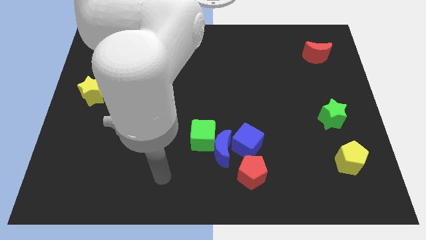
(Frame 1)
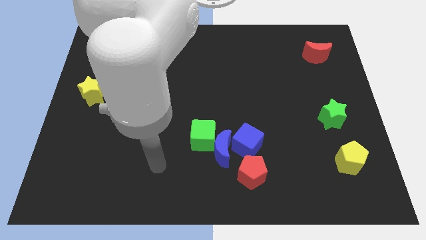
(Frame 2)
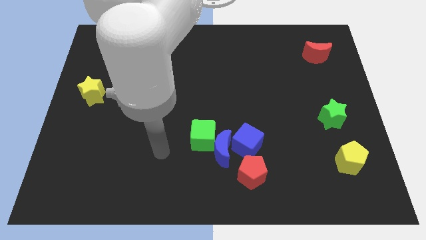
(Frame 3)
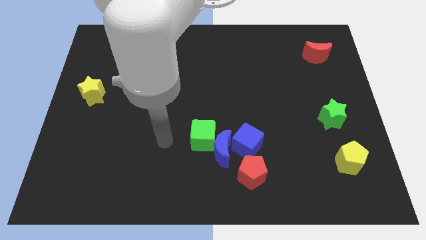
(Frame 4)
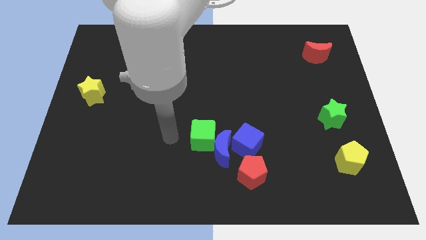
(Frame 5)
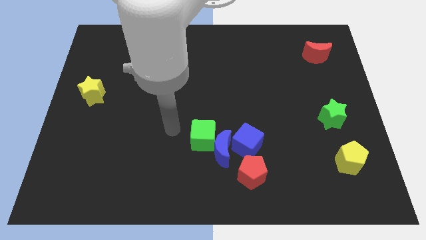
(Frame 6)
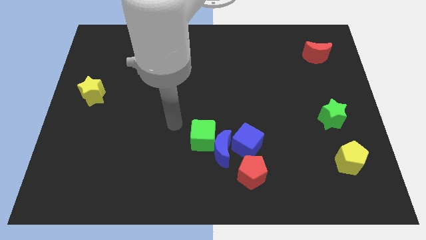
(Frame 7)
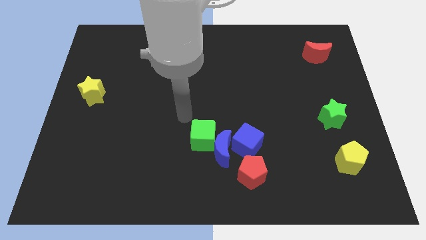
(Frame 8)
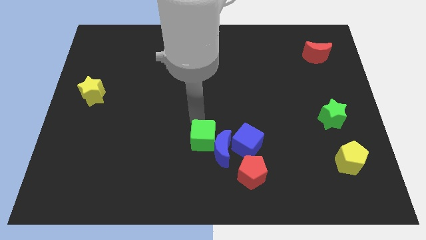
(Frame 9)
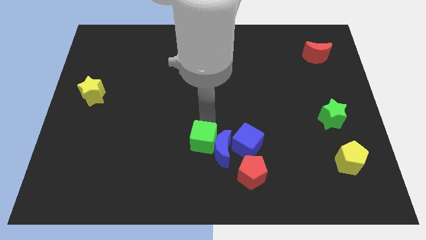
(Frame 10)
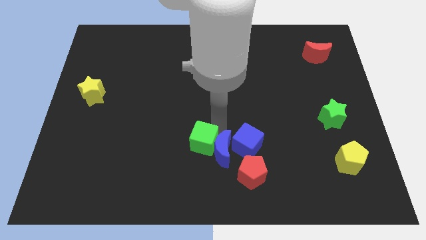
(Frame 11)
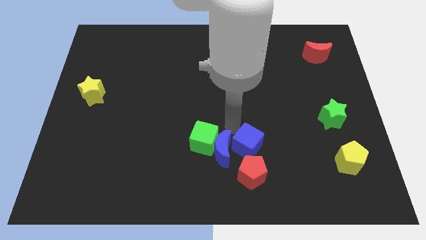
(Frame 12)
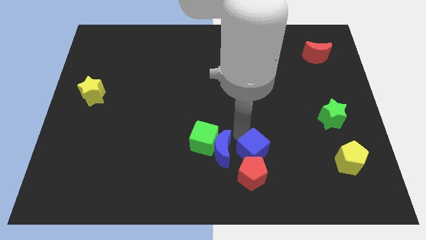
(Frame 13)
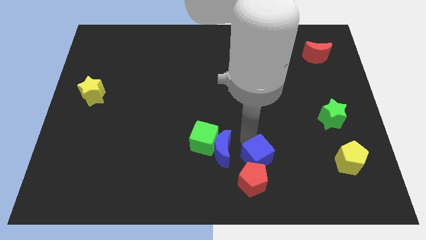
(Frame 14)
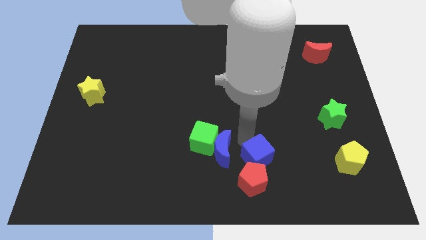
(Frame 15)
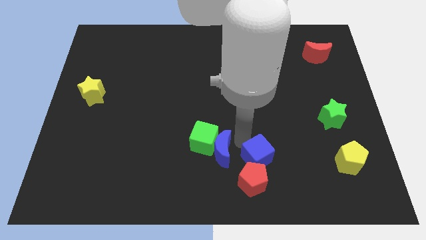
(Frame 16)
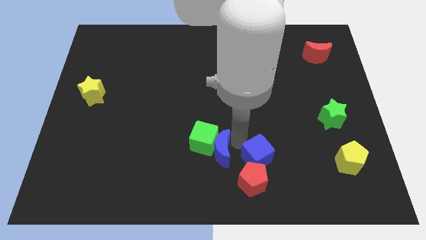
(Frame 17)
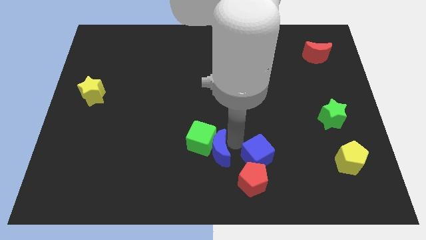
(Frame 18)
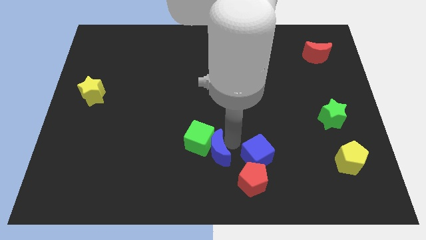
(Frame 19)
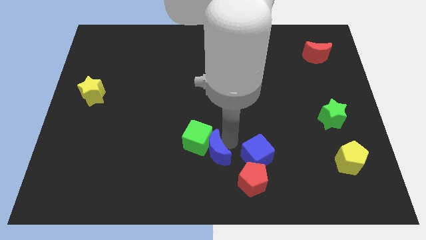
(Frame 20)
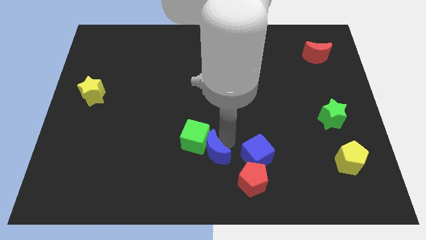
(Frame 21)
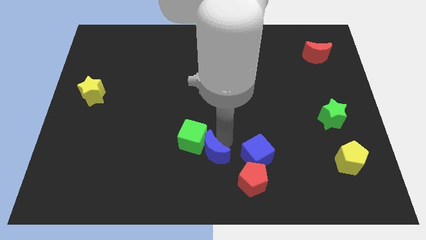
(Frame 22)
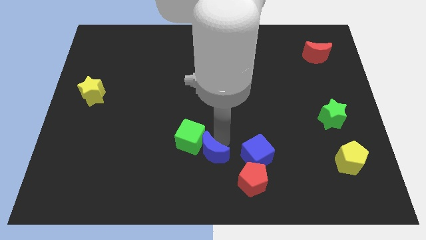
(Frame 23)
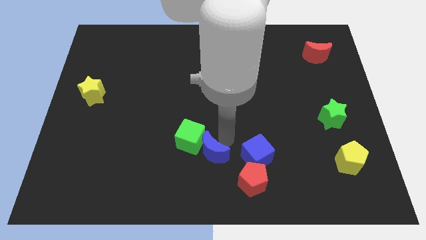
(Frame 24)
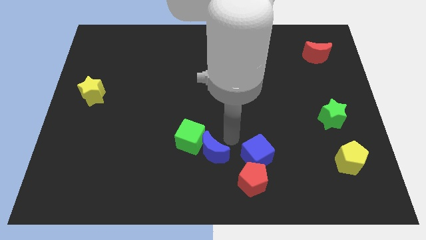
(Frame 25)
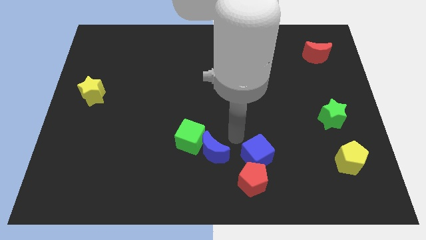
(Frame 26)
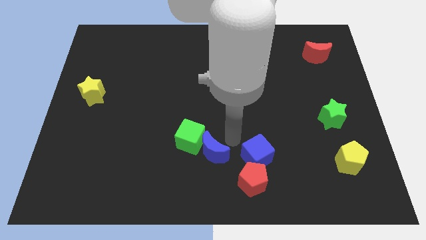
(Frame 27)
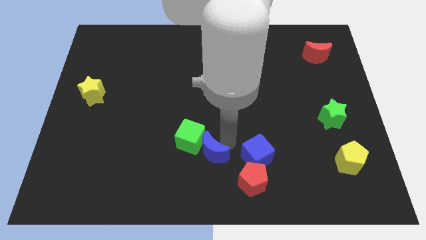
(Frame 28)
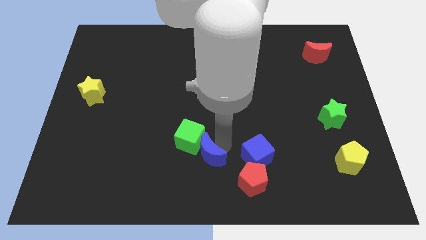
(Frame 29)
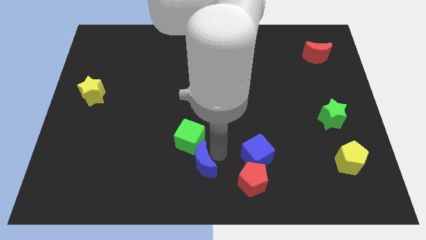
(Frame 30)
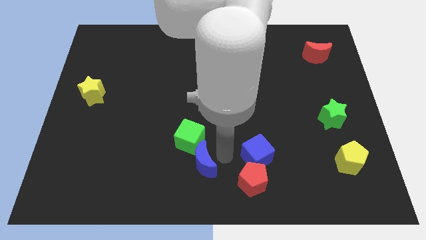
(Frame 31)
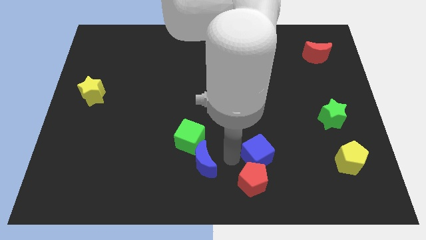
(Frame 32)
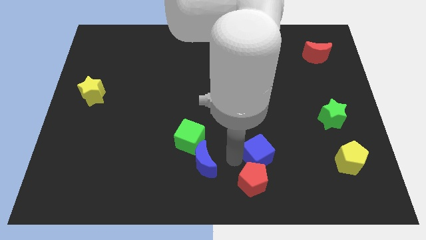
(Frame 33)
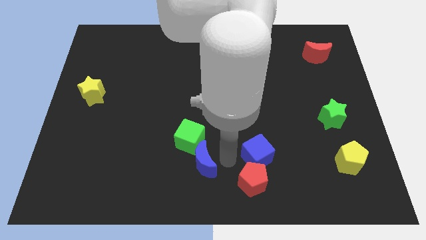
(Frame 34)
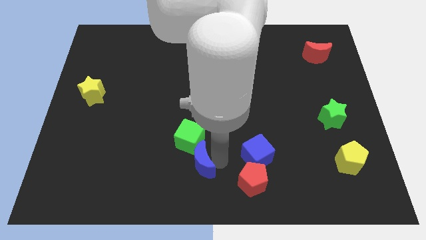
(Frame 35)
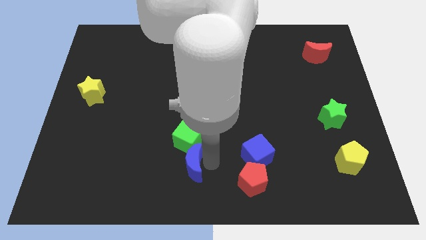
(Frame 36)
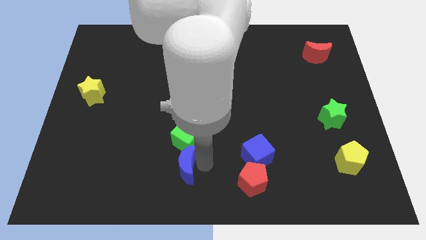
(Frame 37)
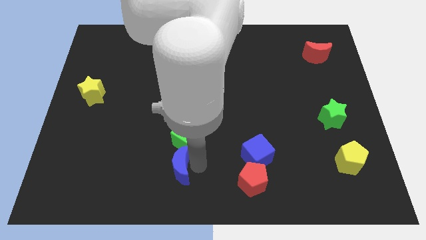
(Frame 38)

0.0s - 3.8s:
move the blue moon away from the clump

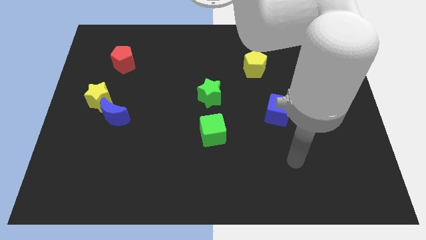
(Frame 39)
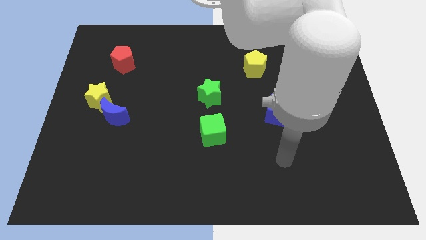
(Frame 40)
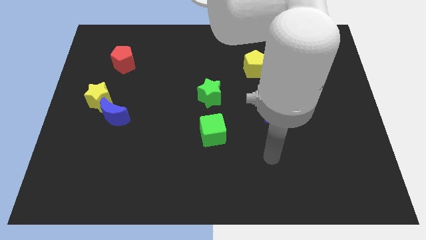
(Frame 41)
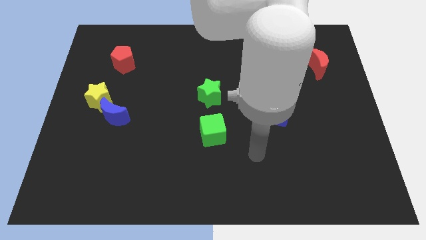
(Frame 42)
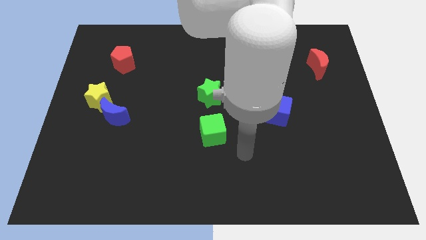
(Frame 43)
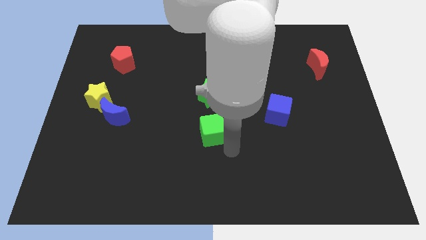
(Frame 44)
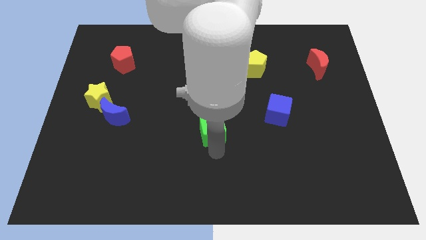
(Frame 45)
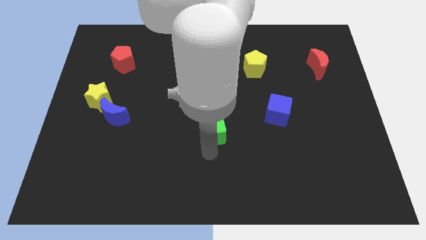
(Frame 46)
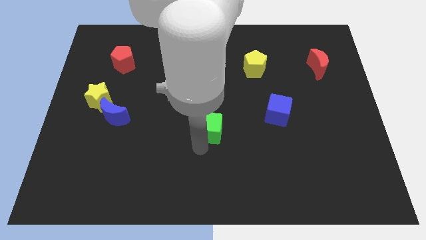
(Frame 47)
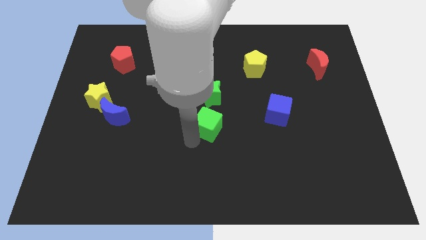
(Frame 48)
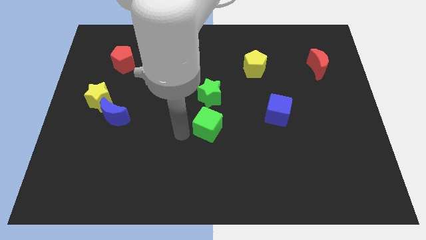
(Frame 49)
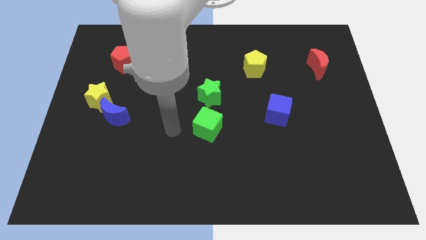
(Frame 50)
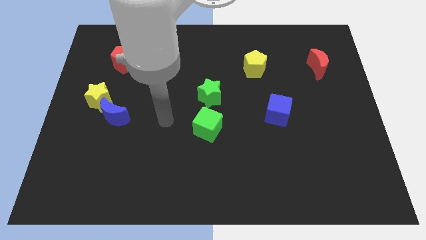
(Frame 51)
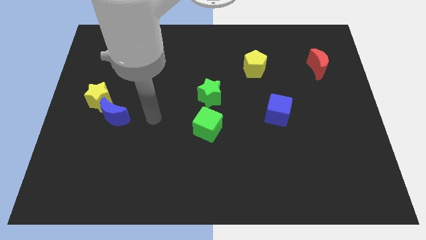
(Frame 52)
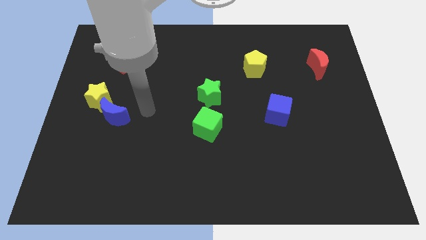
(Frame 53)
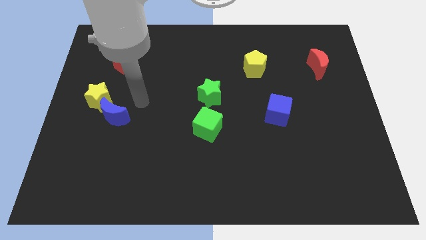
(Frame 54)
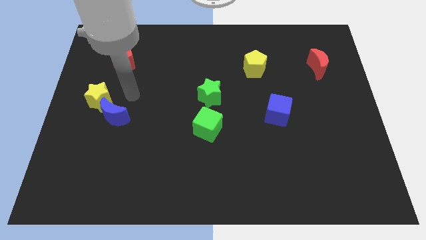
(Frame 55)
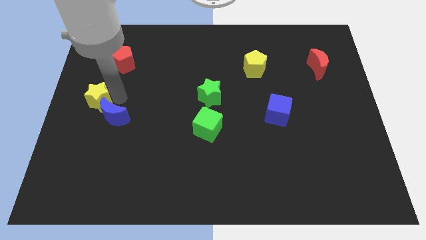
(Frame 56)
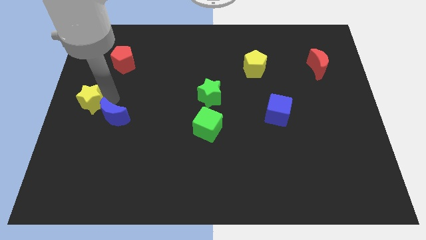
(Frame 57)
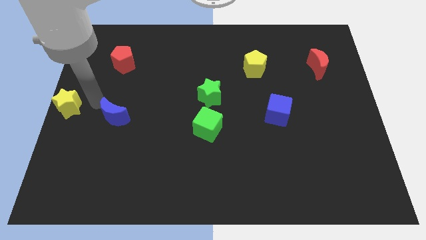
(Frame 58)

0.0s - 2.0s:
separate the blue moon from the yellow star

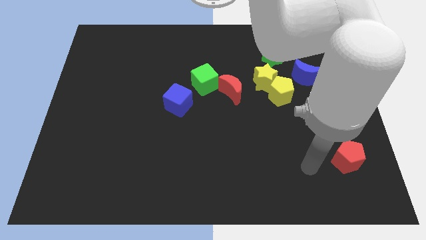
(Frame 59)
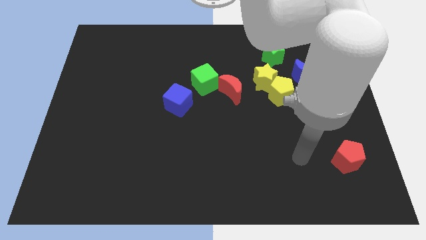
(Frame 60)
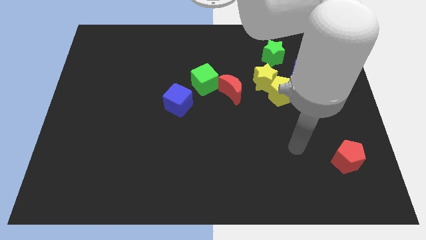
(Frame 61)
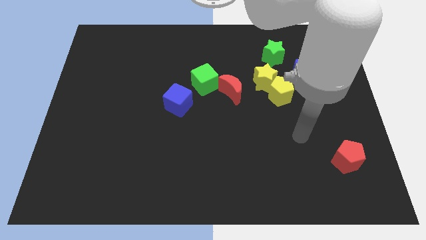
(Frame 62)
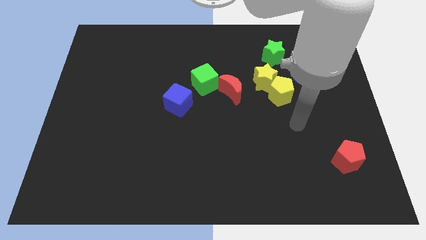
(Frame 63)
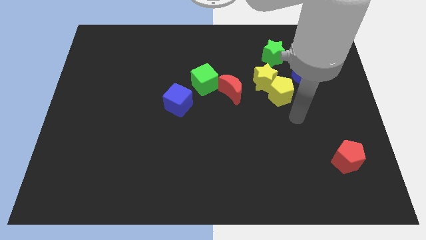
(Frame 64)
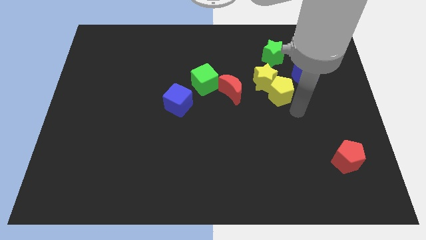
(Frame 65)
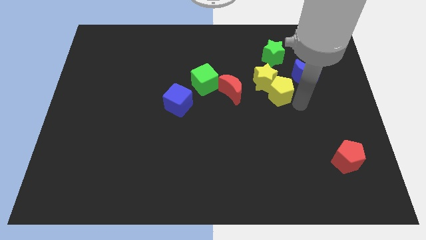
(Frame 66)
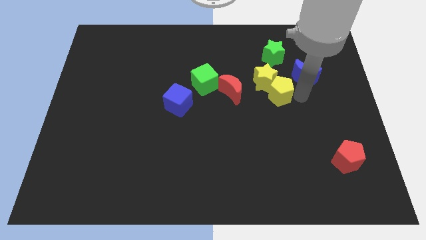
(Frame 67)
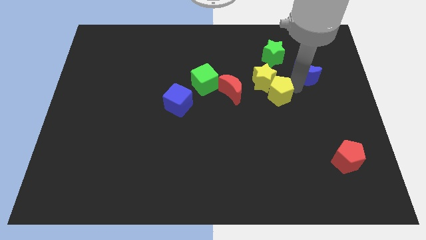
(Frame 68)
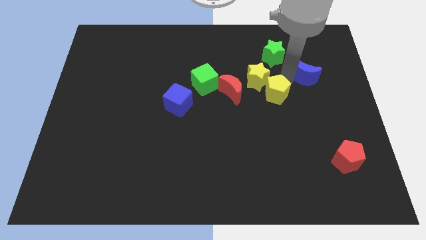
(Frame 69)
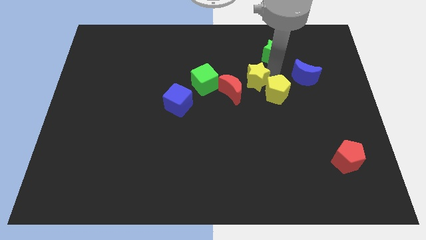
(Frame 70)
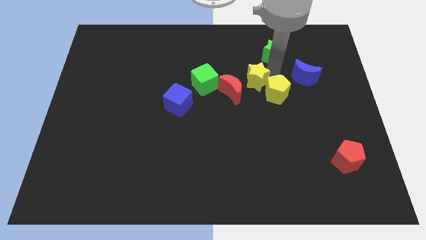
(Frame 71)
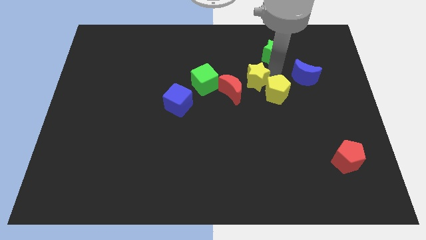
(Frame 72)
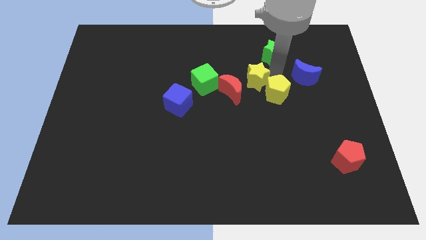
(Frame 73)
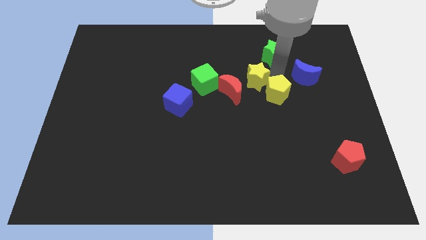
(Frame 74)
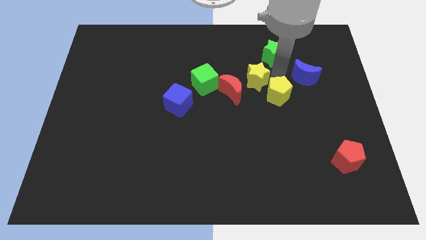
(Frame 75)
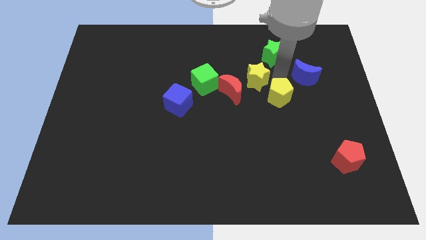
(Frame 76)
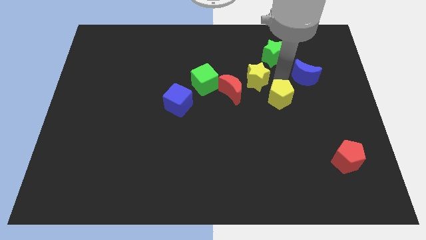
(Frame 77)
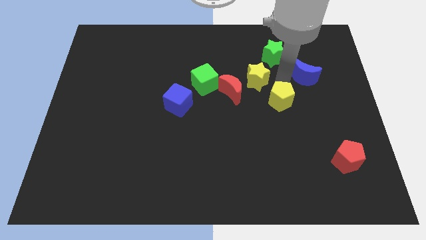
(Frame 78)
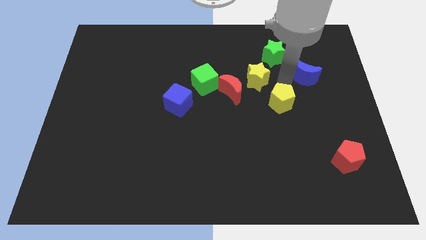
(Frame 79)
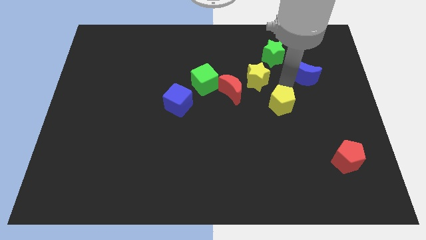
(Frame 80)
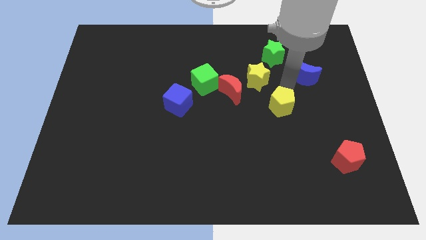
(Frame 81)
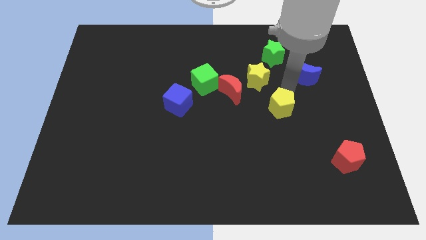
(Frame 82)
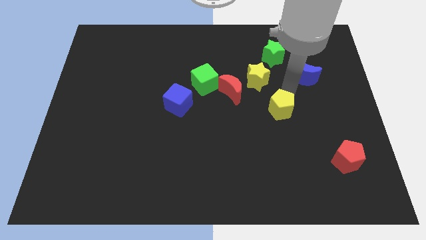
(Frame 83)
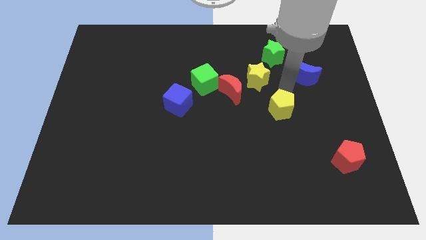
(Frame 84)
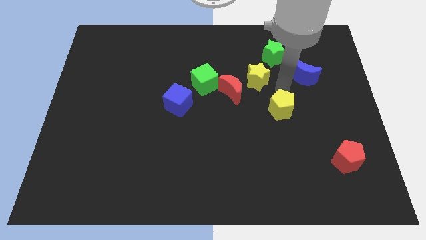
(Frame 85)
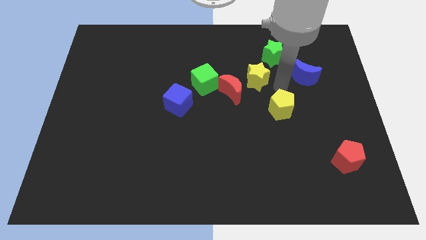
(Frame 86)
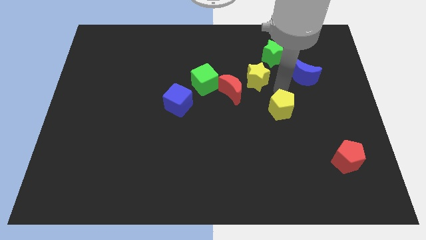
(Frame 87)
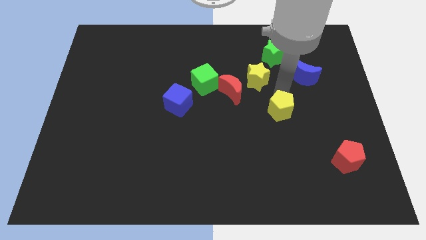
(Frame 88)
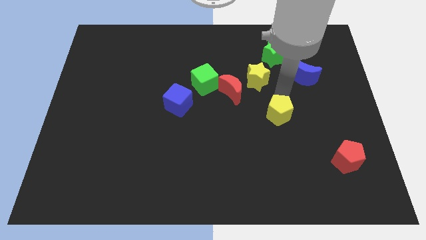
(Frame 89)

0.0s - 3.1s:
separate the yellow pentagon from the yellow star and blue moon

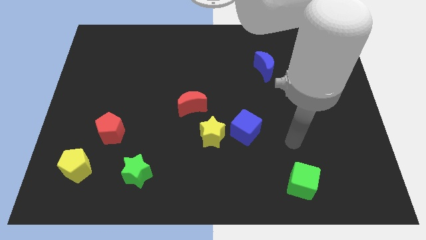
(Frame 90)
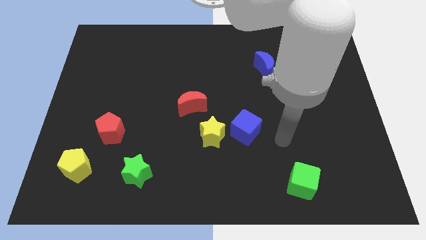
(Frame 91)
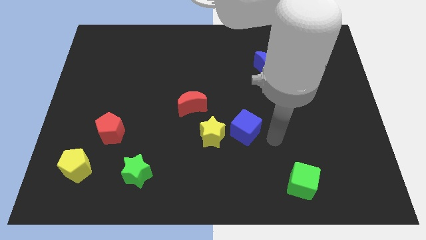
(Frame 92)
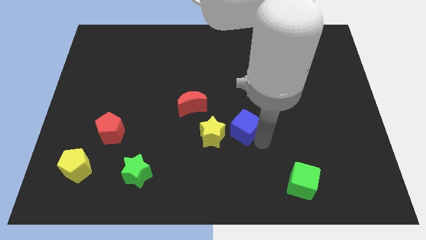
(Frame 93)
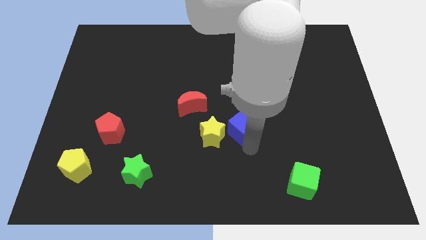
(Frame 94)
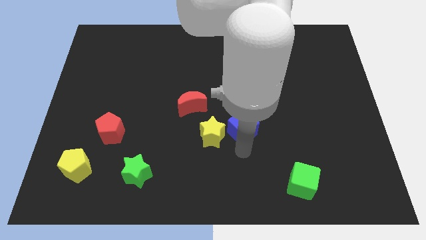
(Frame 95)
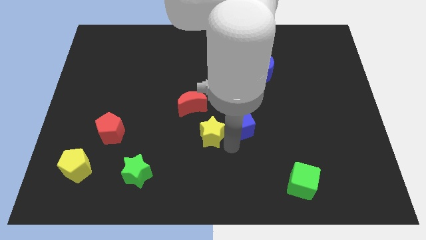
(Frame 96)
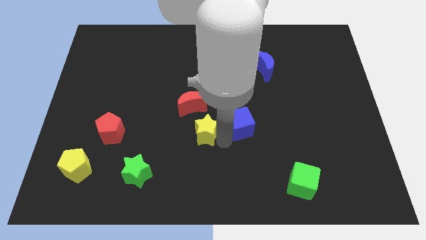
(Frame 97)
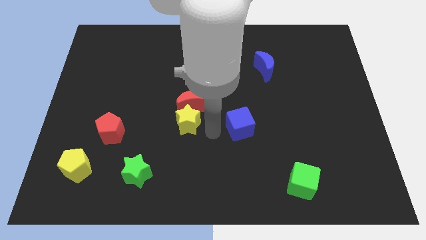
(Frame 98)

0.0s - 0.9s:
pull the blue cube apart from the yellow star
